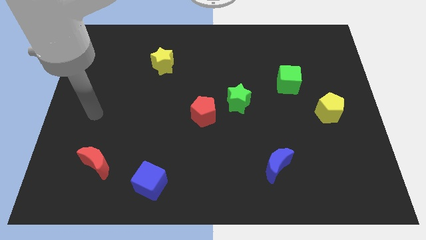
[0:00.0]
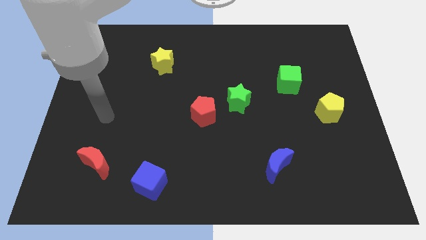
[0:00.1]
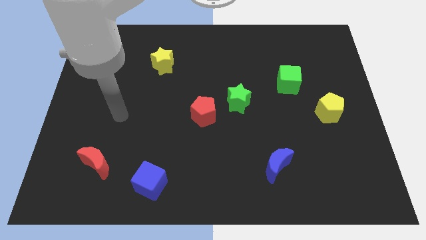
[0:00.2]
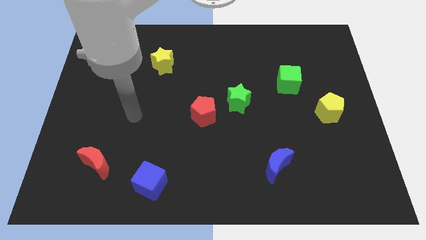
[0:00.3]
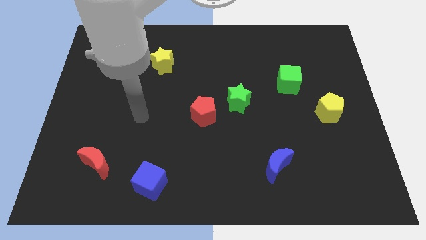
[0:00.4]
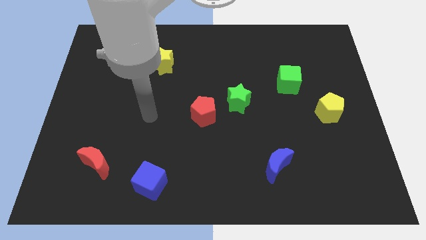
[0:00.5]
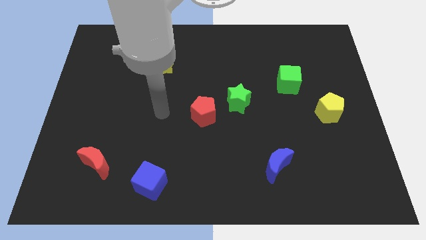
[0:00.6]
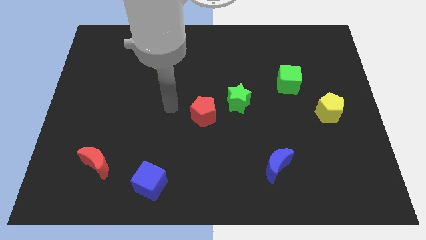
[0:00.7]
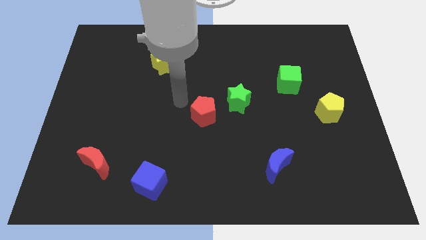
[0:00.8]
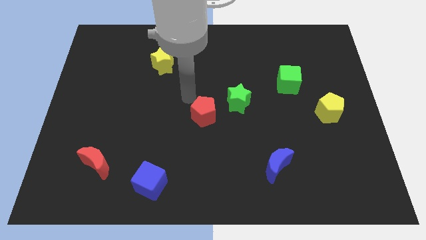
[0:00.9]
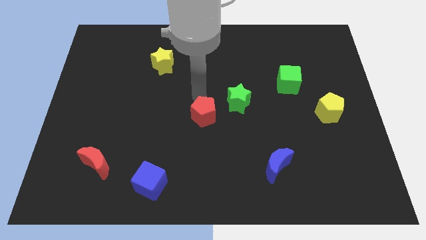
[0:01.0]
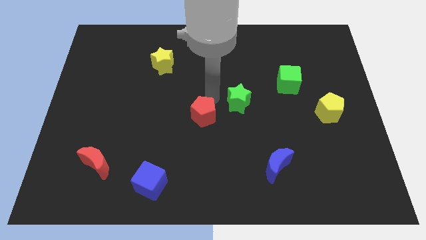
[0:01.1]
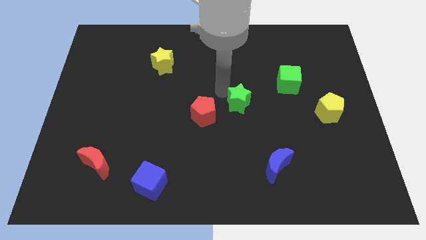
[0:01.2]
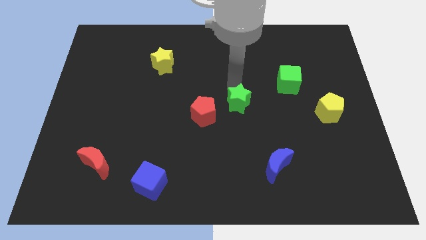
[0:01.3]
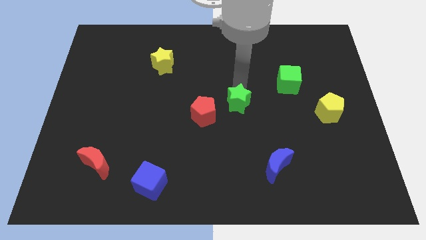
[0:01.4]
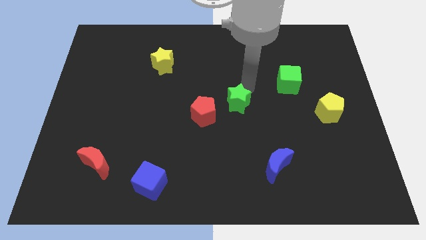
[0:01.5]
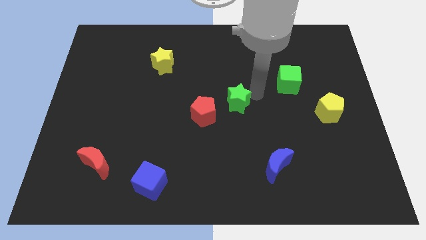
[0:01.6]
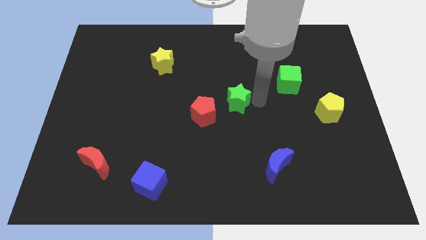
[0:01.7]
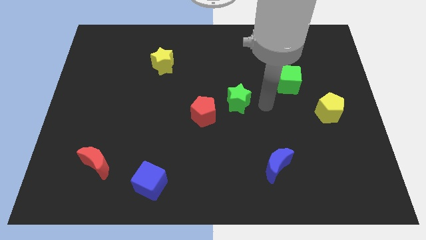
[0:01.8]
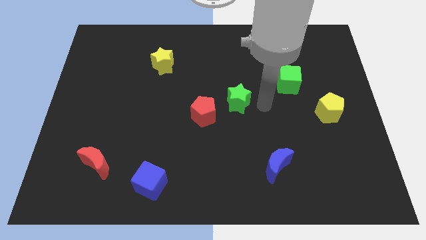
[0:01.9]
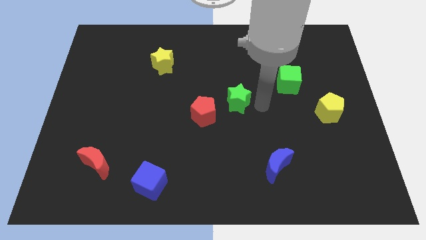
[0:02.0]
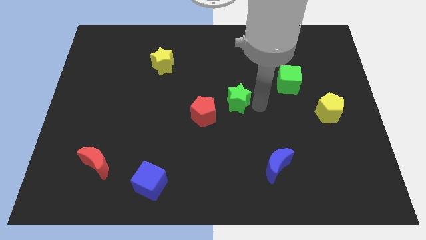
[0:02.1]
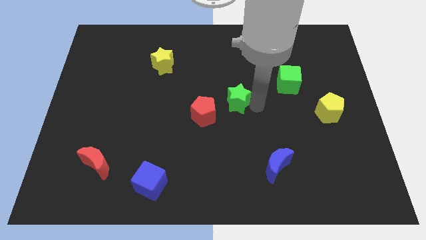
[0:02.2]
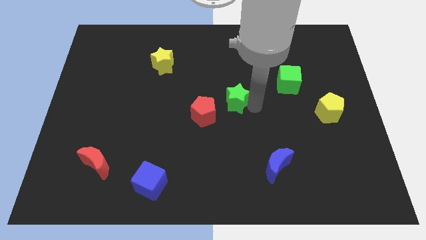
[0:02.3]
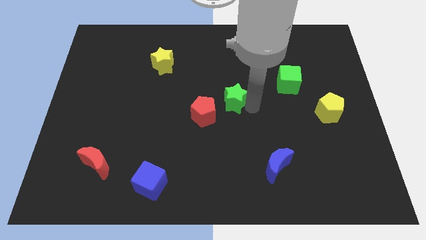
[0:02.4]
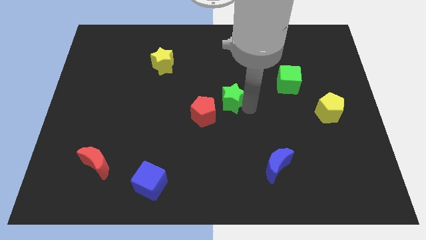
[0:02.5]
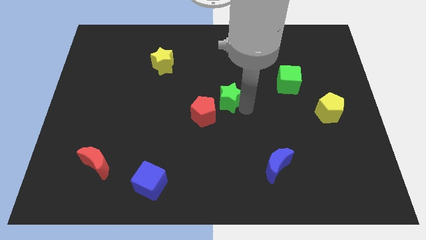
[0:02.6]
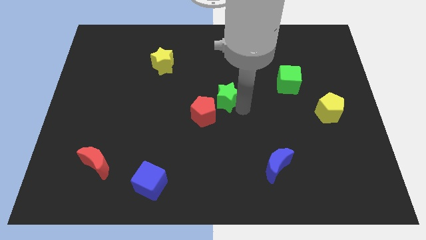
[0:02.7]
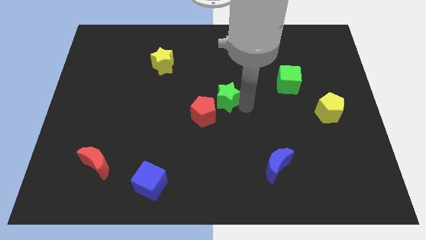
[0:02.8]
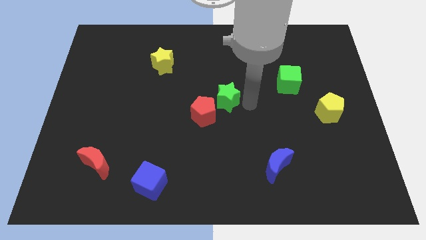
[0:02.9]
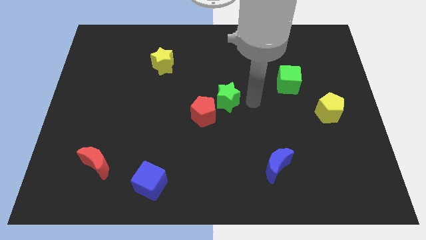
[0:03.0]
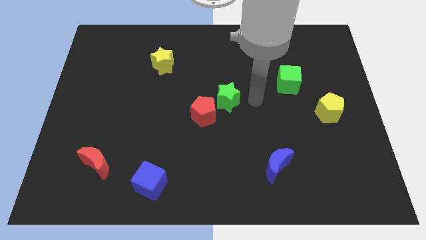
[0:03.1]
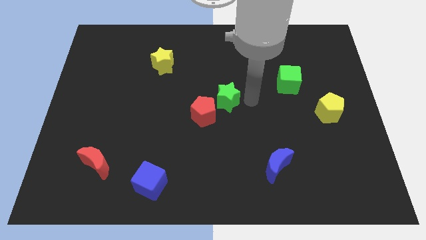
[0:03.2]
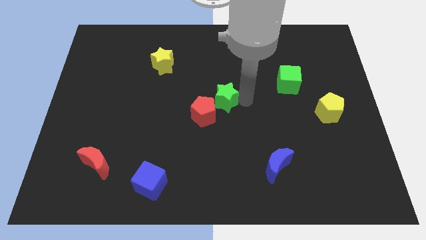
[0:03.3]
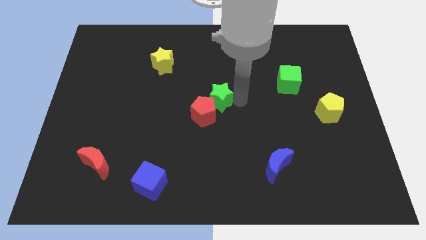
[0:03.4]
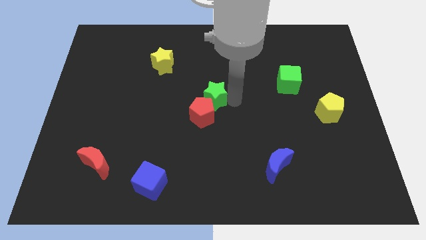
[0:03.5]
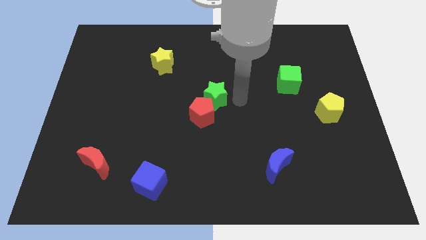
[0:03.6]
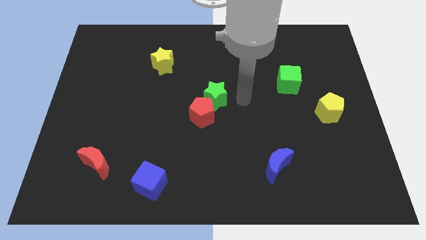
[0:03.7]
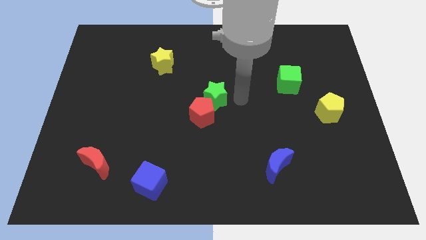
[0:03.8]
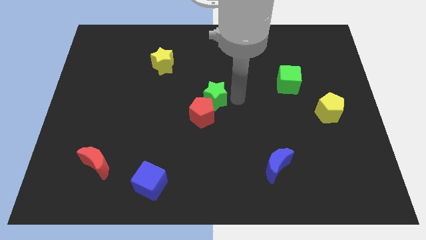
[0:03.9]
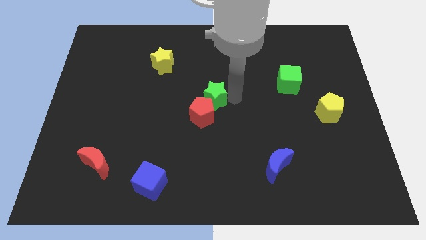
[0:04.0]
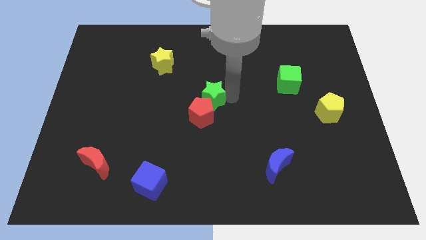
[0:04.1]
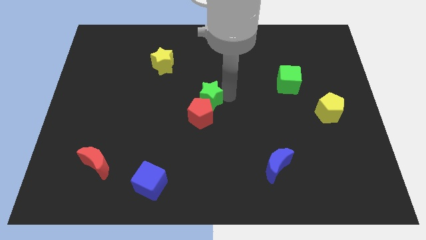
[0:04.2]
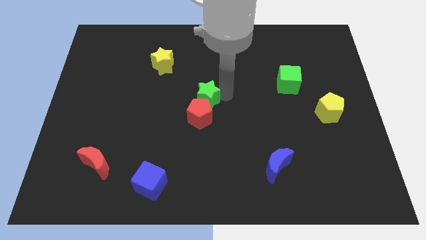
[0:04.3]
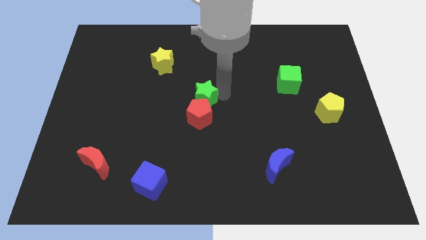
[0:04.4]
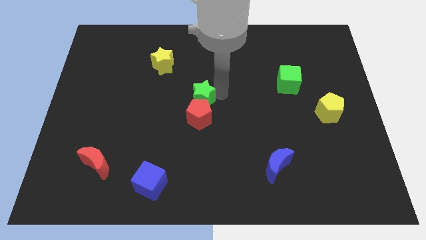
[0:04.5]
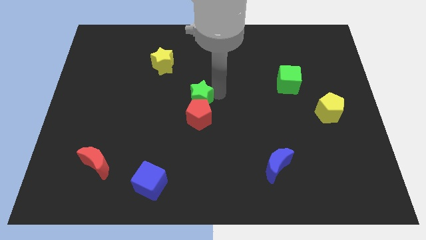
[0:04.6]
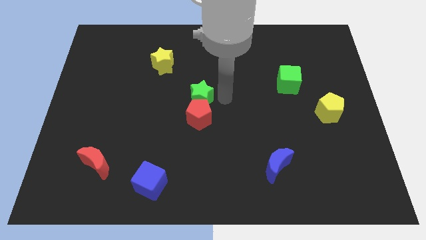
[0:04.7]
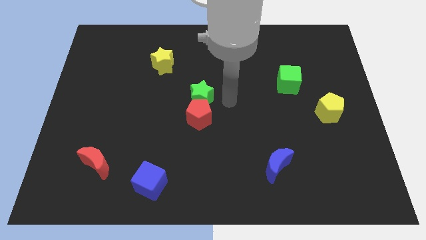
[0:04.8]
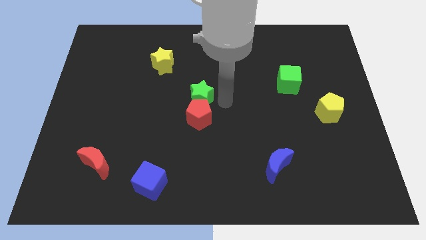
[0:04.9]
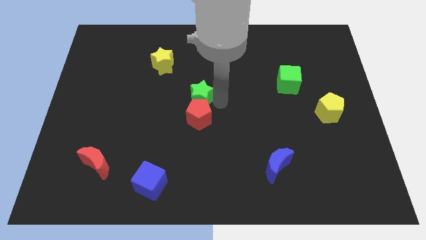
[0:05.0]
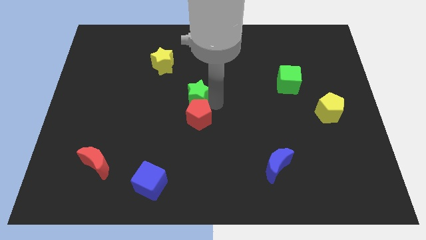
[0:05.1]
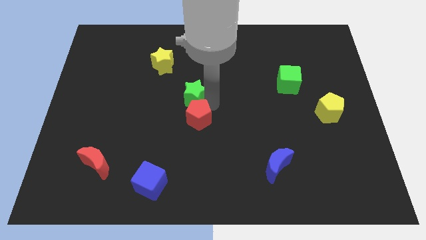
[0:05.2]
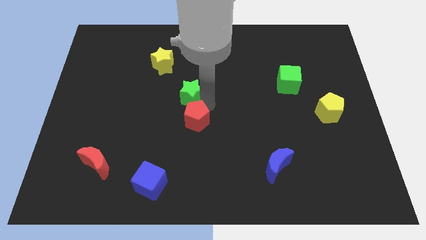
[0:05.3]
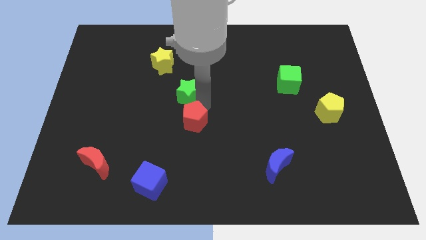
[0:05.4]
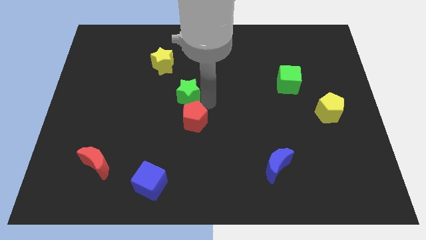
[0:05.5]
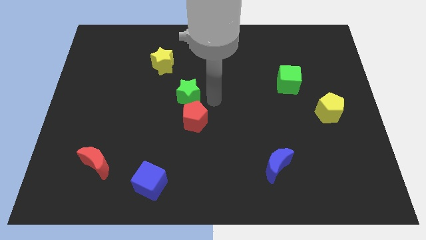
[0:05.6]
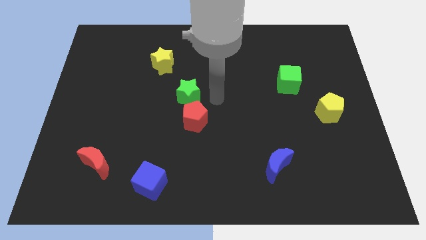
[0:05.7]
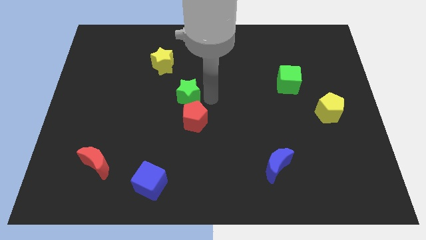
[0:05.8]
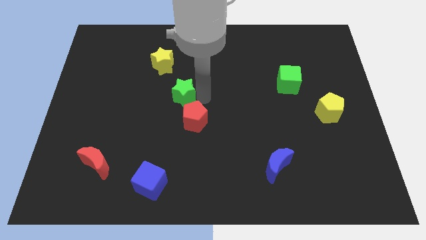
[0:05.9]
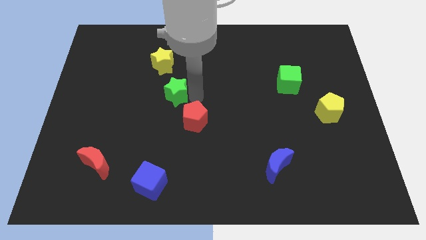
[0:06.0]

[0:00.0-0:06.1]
put the green star to the bottom of the yellow star

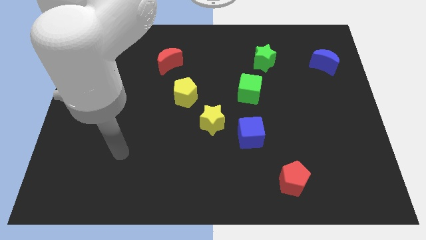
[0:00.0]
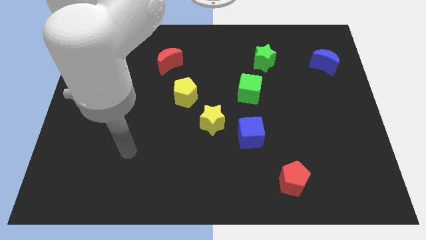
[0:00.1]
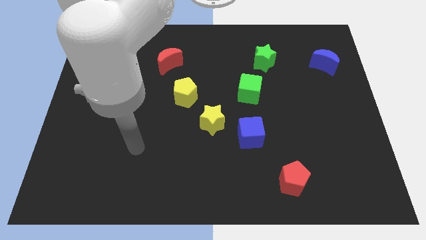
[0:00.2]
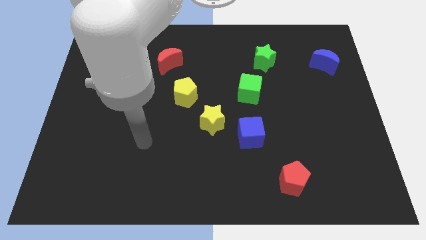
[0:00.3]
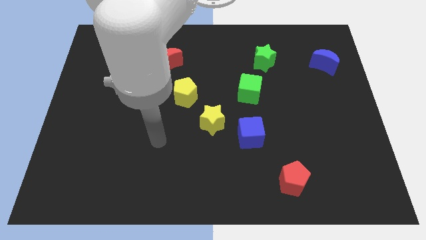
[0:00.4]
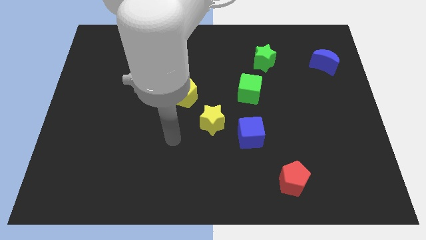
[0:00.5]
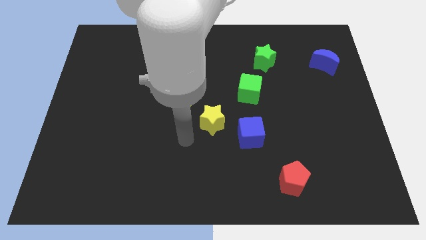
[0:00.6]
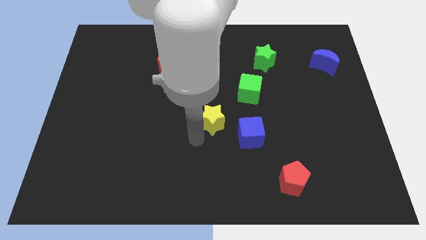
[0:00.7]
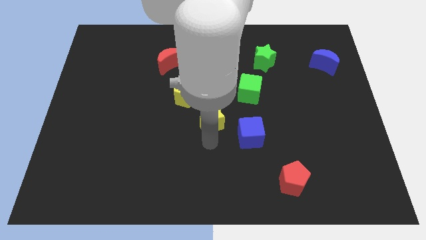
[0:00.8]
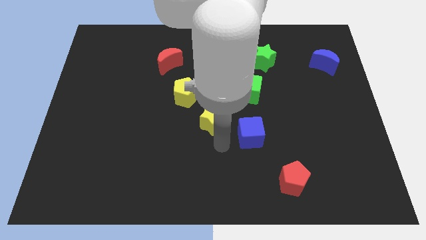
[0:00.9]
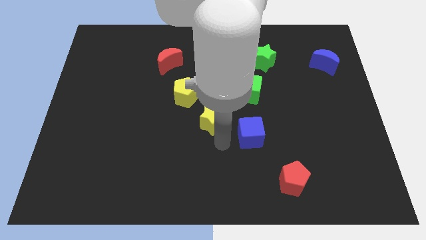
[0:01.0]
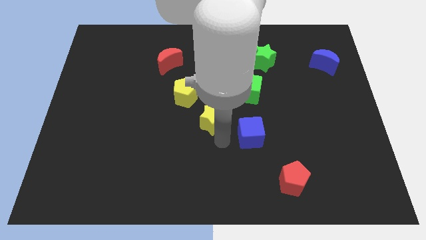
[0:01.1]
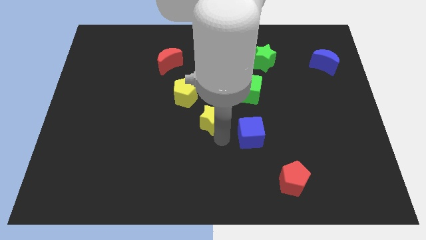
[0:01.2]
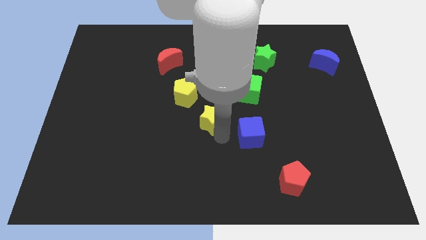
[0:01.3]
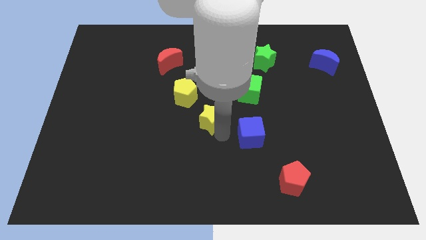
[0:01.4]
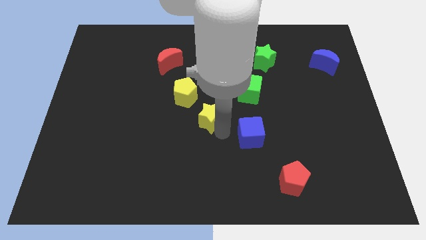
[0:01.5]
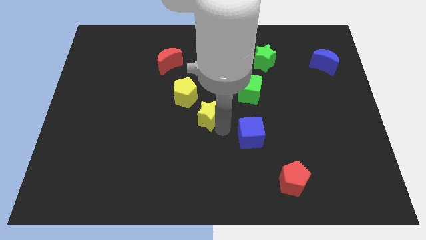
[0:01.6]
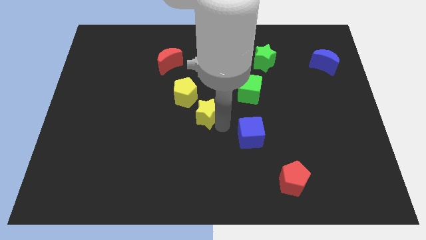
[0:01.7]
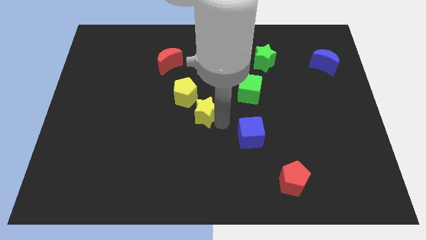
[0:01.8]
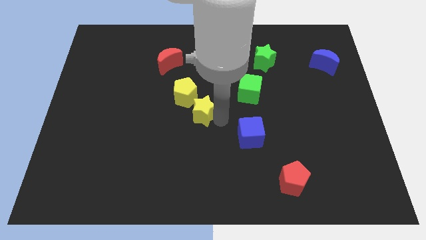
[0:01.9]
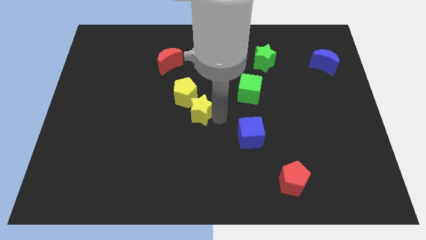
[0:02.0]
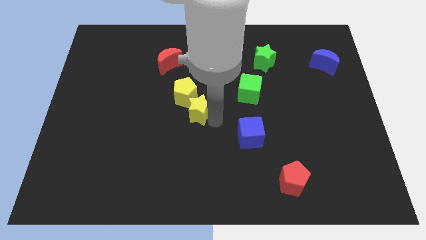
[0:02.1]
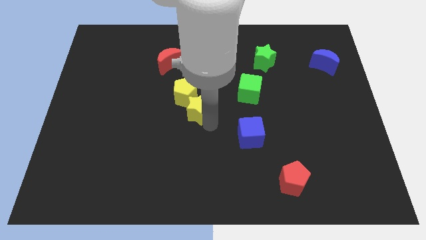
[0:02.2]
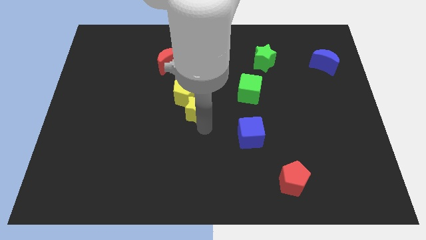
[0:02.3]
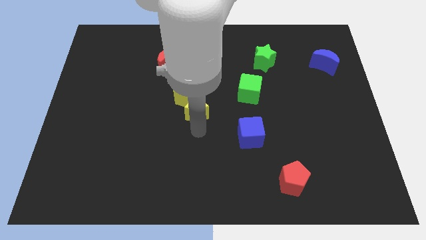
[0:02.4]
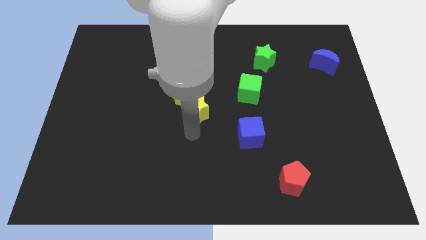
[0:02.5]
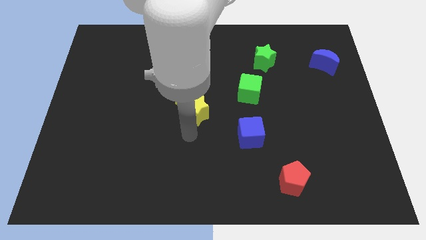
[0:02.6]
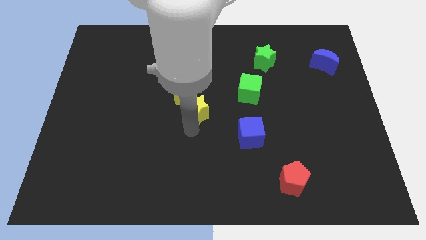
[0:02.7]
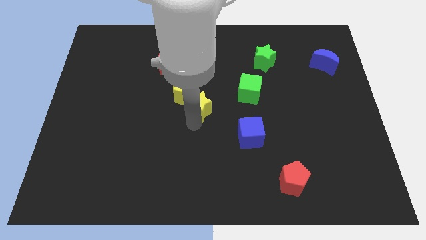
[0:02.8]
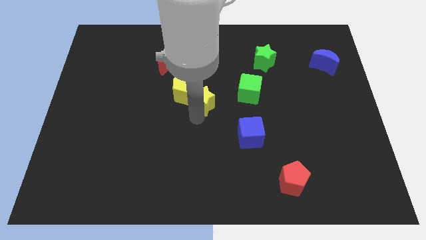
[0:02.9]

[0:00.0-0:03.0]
push the yellow star just left of the green cube
